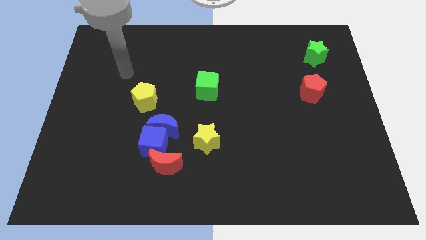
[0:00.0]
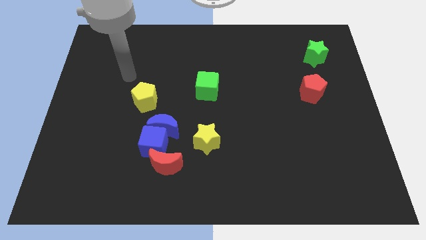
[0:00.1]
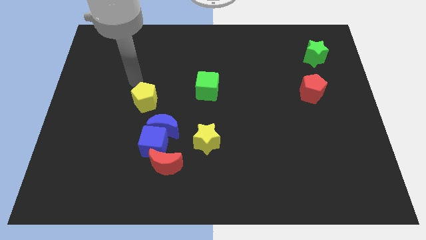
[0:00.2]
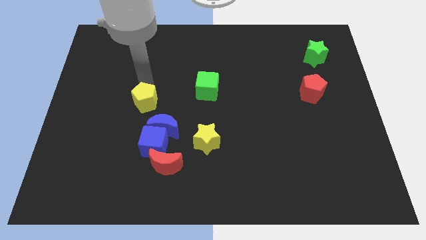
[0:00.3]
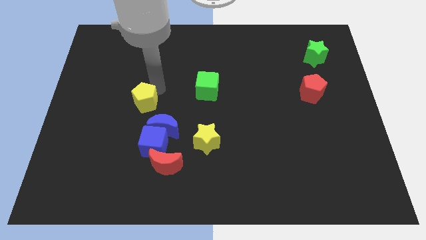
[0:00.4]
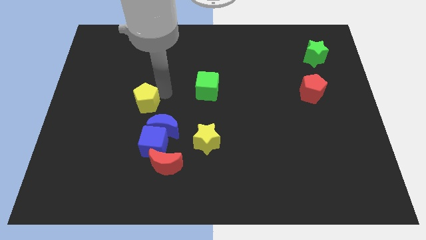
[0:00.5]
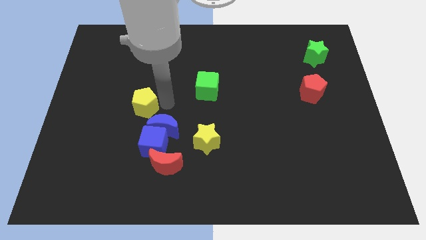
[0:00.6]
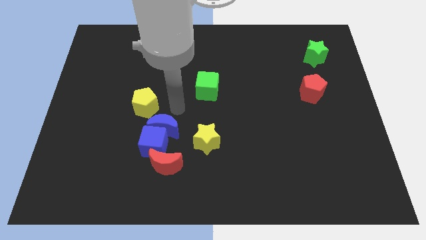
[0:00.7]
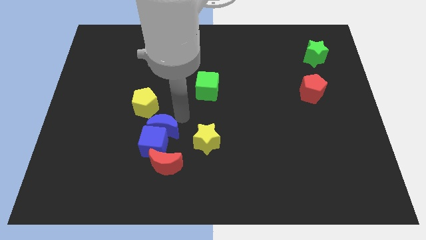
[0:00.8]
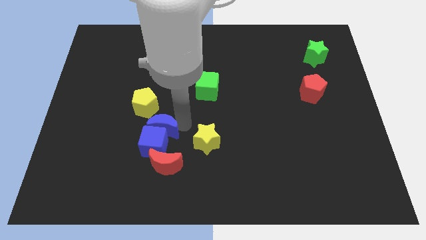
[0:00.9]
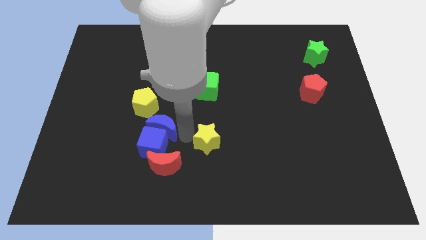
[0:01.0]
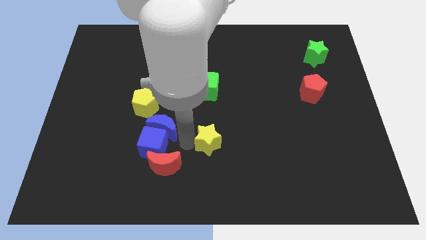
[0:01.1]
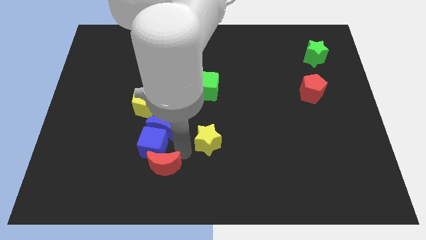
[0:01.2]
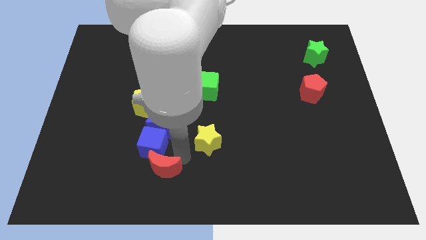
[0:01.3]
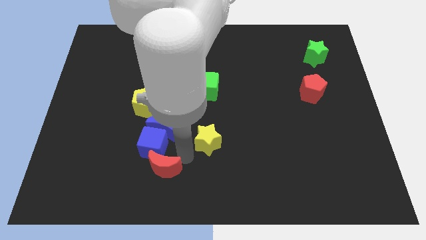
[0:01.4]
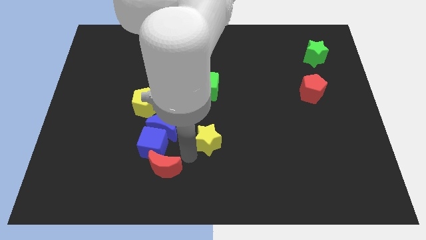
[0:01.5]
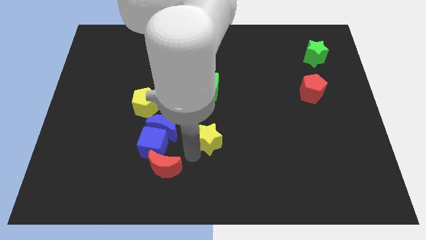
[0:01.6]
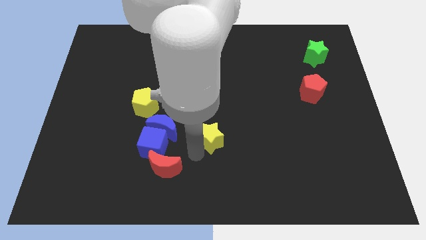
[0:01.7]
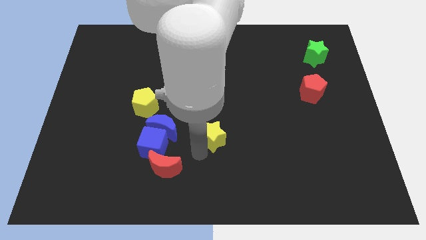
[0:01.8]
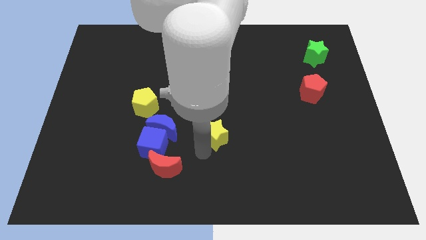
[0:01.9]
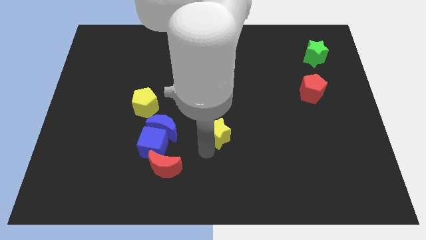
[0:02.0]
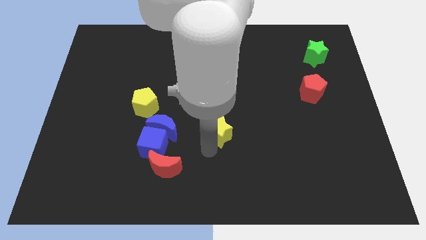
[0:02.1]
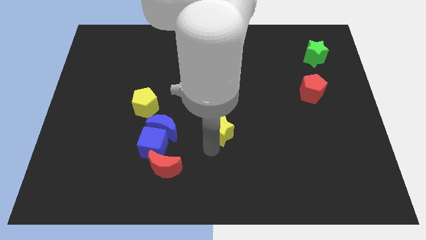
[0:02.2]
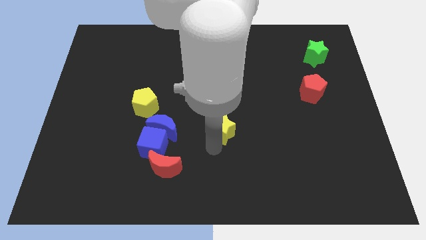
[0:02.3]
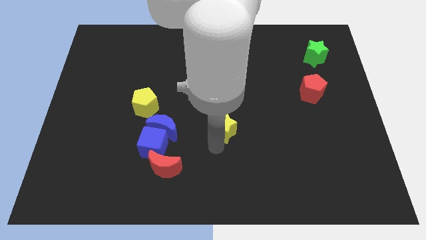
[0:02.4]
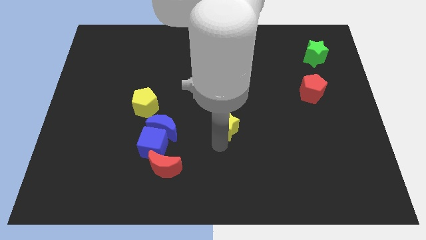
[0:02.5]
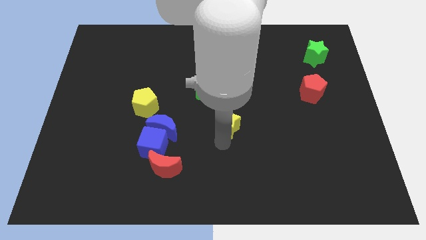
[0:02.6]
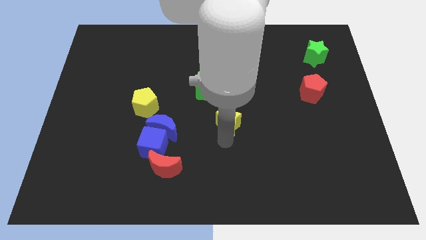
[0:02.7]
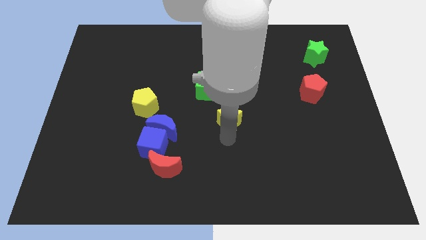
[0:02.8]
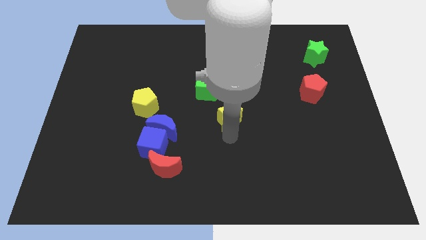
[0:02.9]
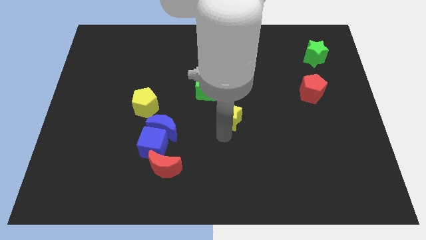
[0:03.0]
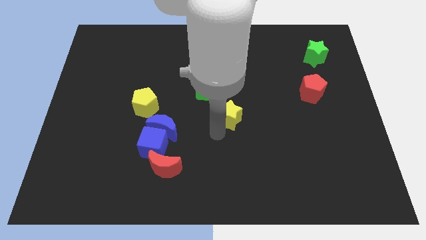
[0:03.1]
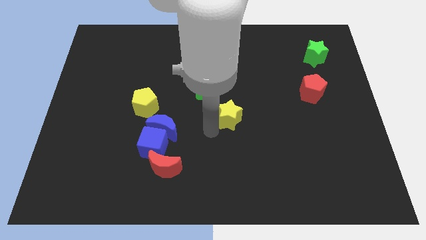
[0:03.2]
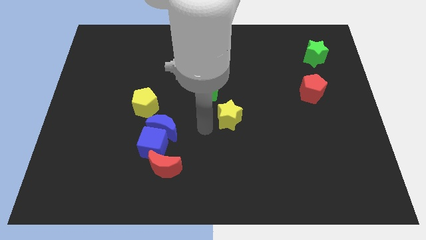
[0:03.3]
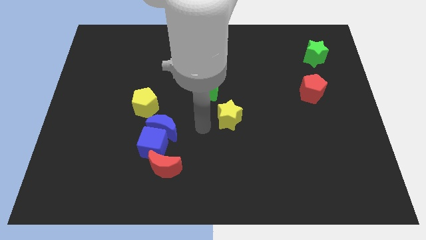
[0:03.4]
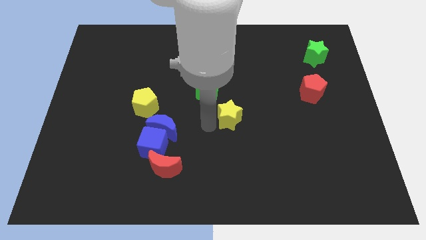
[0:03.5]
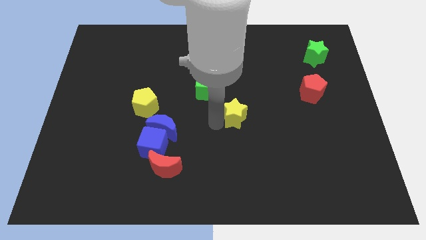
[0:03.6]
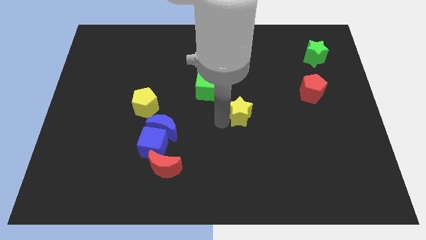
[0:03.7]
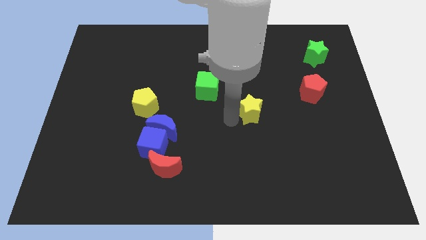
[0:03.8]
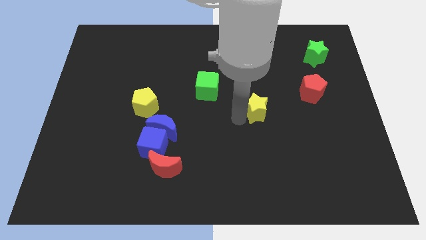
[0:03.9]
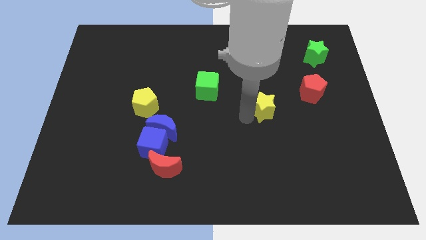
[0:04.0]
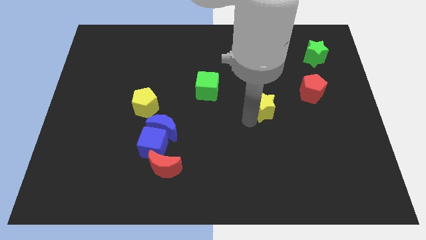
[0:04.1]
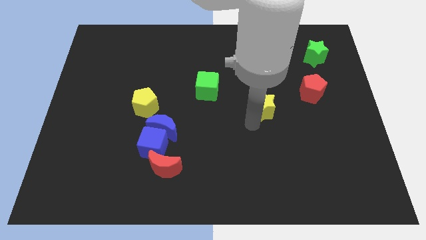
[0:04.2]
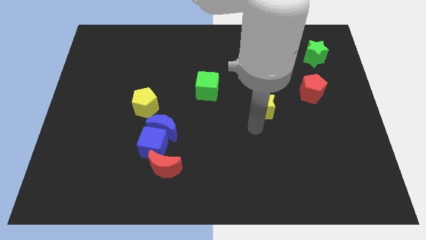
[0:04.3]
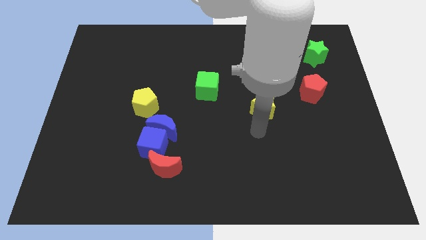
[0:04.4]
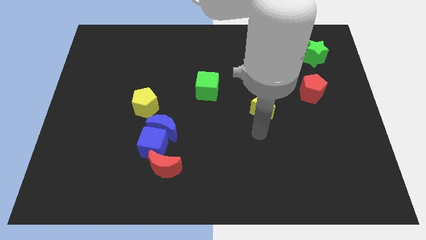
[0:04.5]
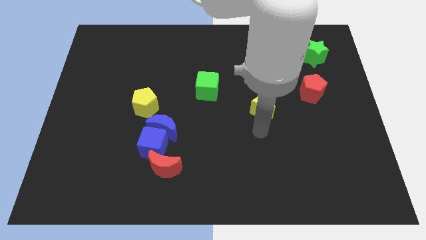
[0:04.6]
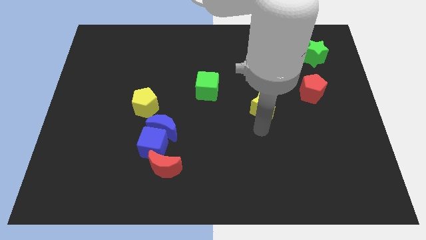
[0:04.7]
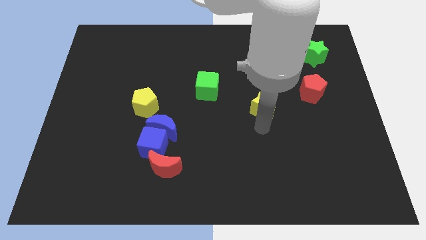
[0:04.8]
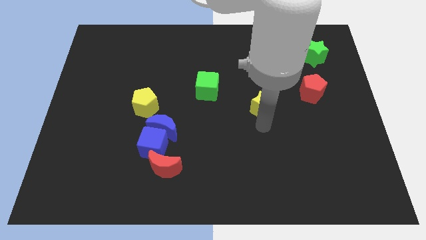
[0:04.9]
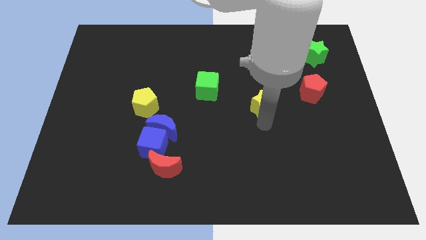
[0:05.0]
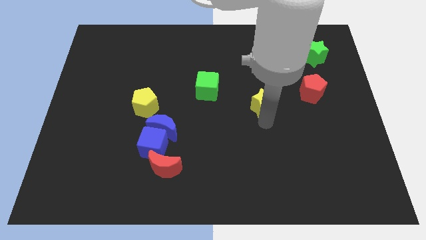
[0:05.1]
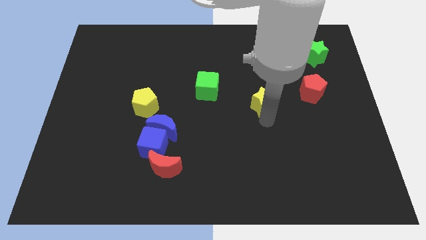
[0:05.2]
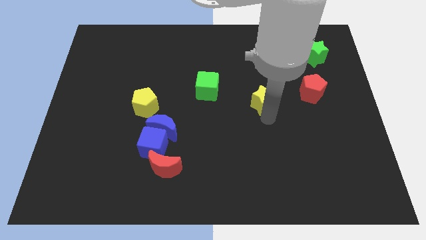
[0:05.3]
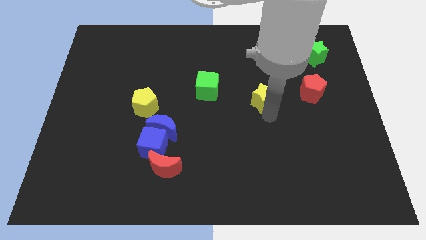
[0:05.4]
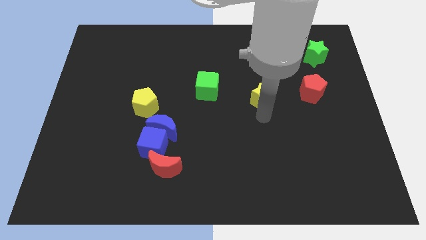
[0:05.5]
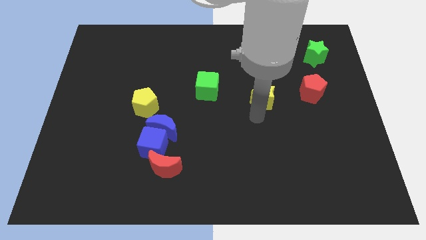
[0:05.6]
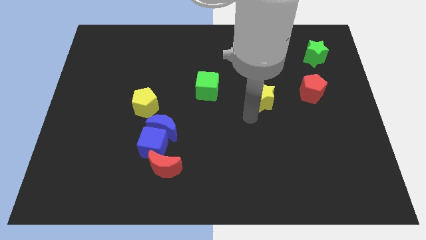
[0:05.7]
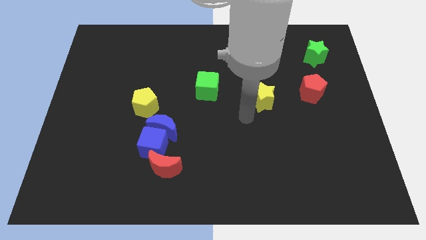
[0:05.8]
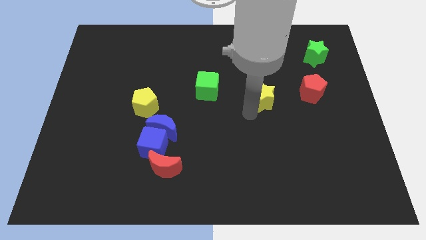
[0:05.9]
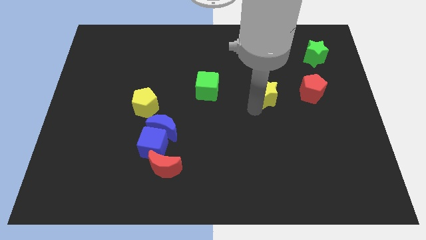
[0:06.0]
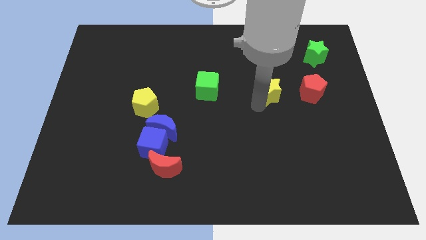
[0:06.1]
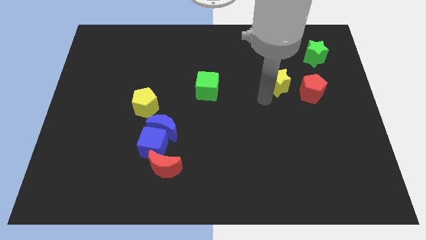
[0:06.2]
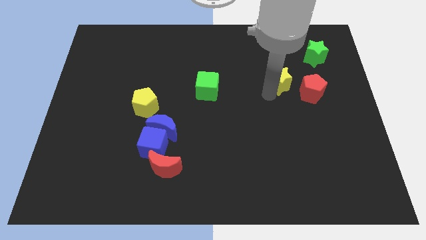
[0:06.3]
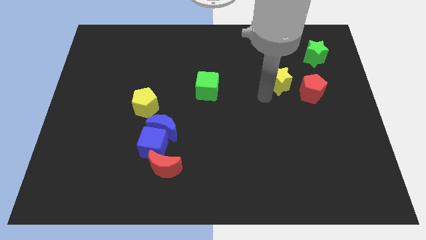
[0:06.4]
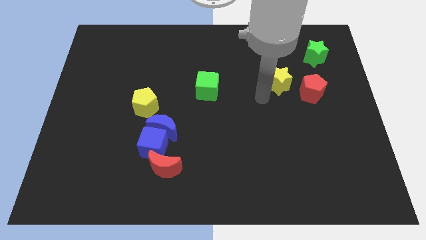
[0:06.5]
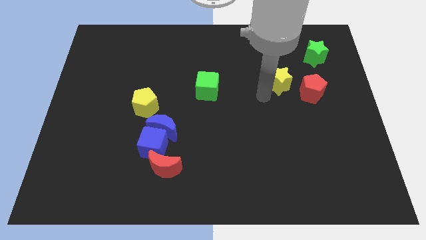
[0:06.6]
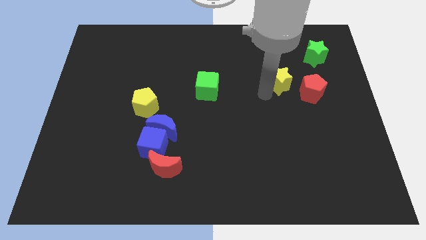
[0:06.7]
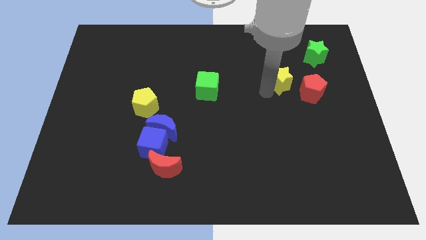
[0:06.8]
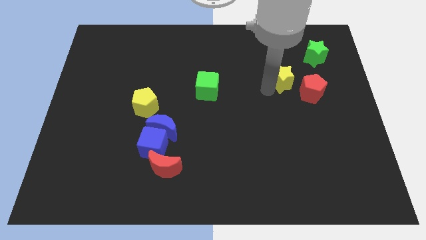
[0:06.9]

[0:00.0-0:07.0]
push the yellow star diagonally down and to the left of the green star

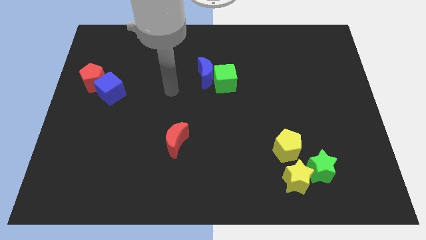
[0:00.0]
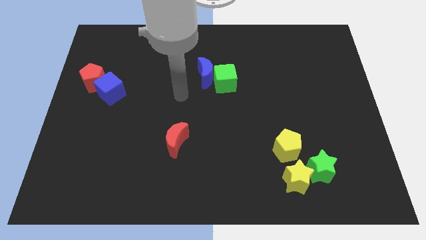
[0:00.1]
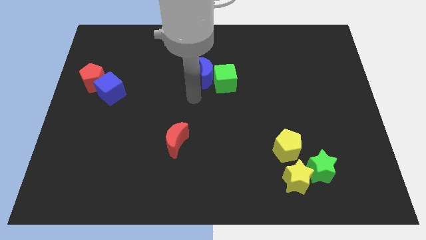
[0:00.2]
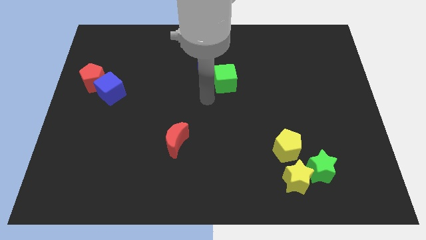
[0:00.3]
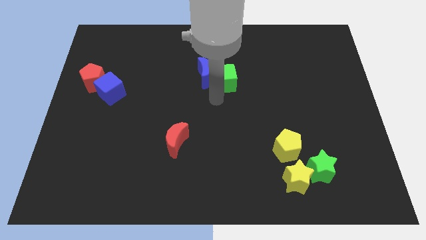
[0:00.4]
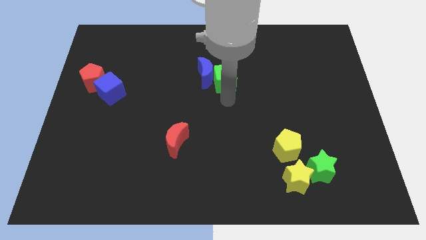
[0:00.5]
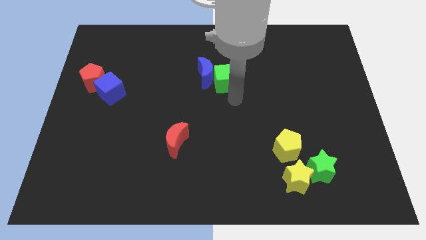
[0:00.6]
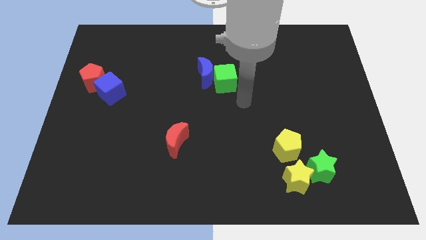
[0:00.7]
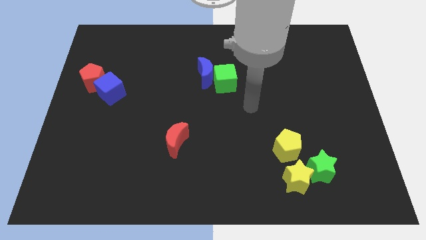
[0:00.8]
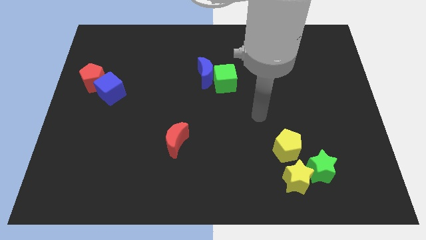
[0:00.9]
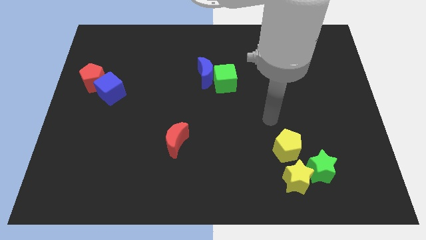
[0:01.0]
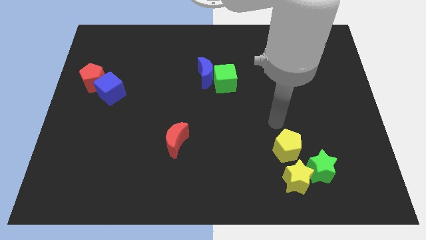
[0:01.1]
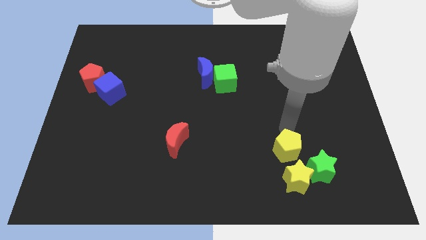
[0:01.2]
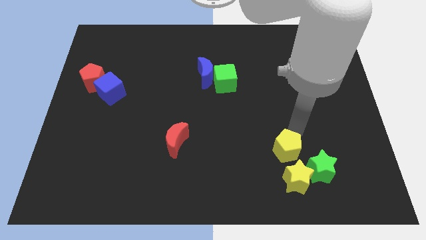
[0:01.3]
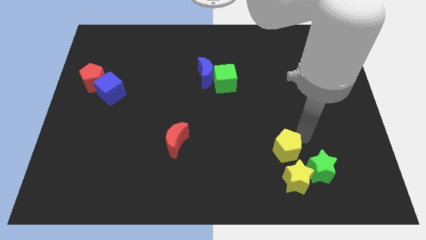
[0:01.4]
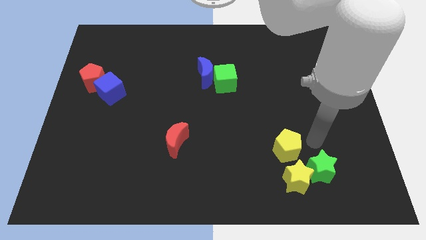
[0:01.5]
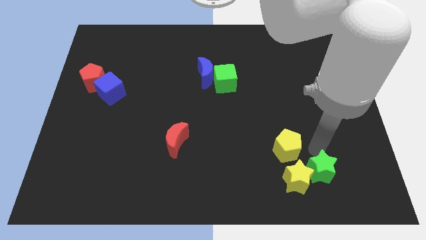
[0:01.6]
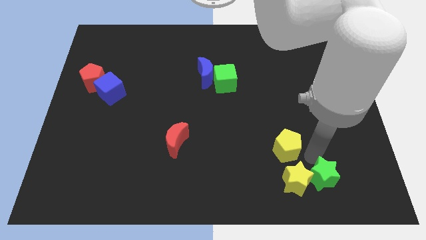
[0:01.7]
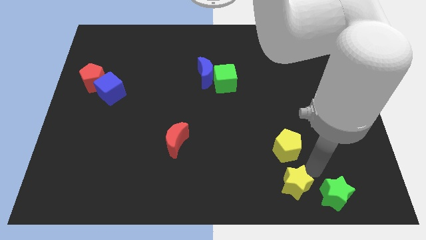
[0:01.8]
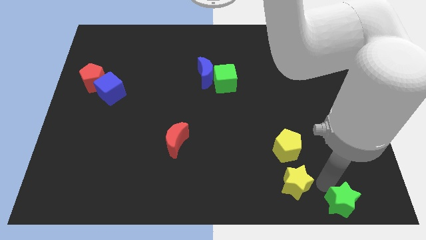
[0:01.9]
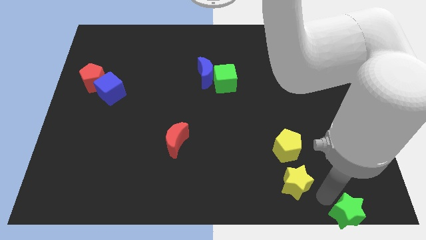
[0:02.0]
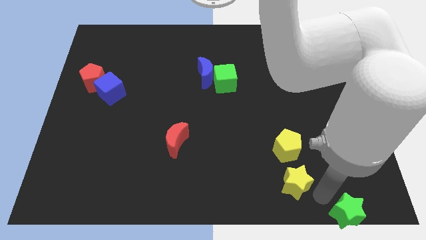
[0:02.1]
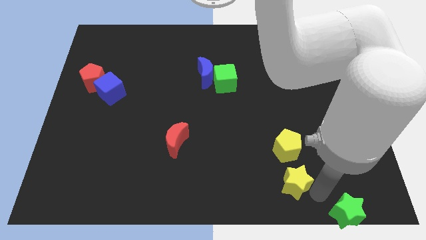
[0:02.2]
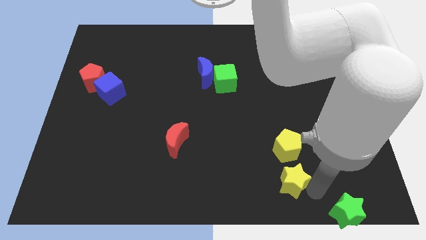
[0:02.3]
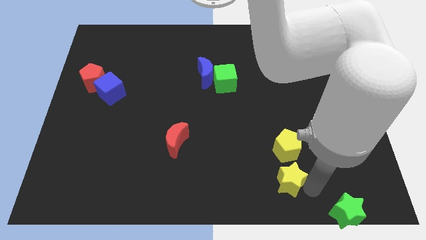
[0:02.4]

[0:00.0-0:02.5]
slide the yellow star to the bottom left of the yellow pentagon
